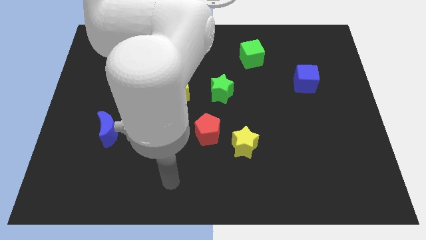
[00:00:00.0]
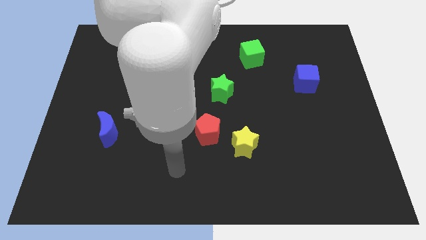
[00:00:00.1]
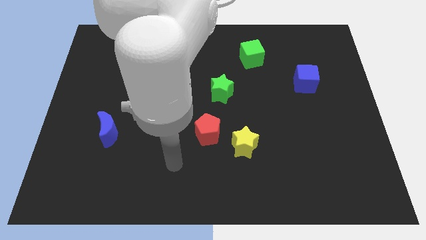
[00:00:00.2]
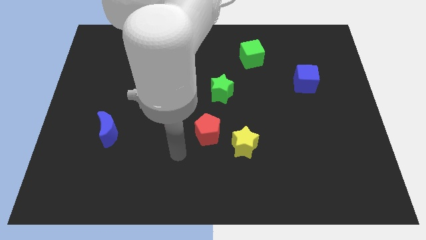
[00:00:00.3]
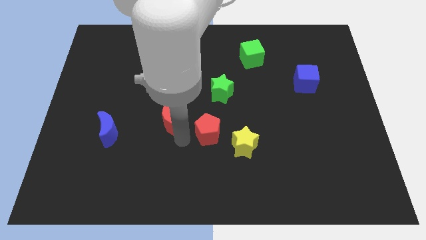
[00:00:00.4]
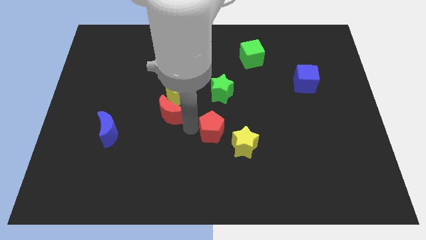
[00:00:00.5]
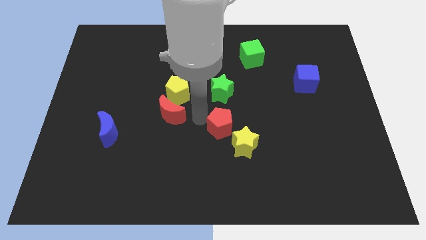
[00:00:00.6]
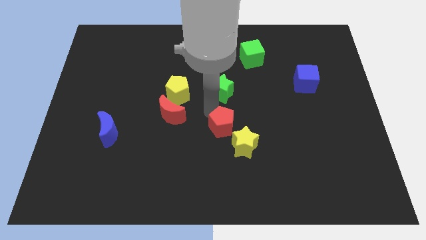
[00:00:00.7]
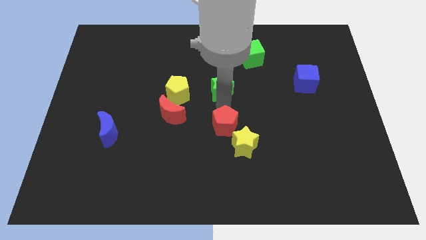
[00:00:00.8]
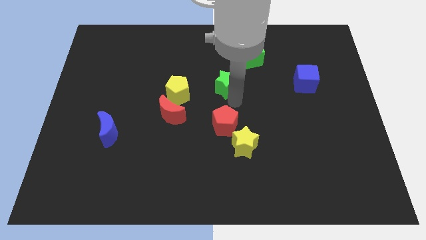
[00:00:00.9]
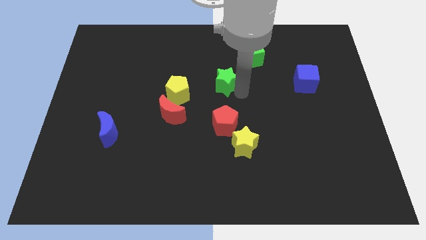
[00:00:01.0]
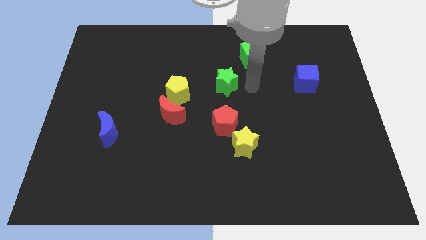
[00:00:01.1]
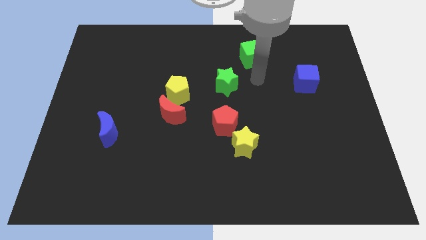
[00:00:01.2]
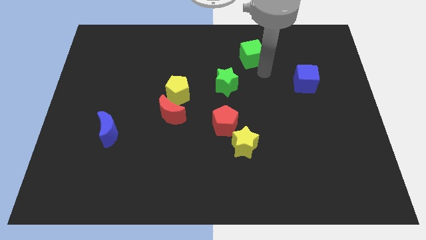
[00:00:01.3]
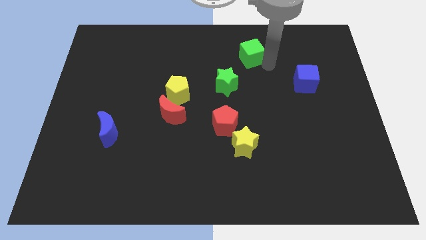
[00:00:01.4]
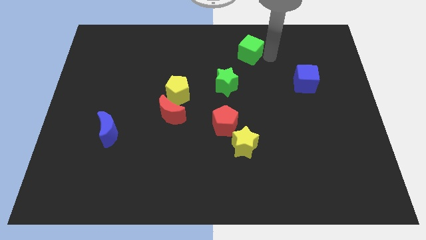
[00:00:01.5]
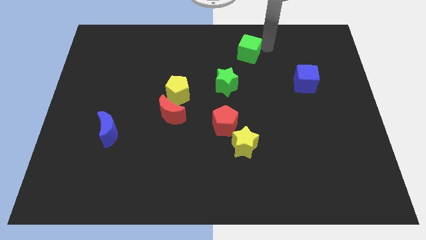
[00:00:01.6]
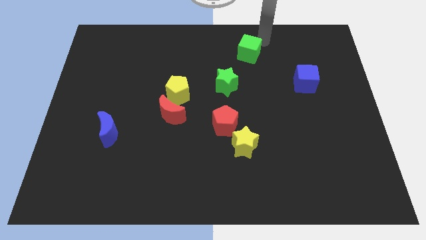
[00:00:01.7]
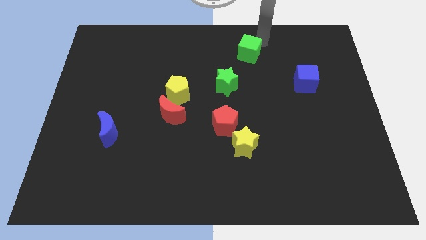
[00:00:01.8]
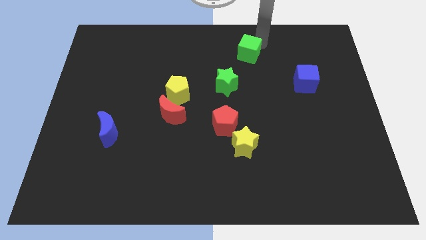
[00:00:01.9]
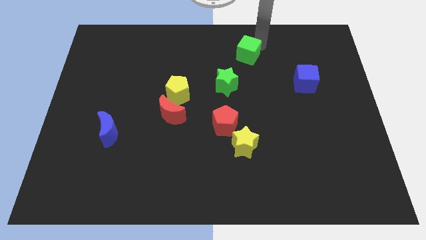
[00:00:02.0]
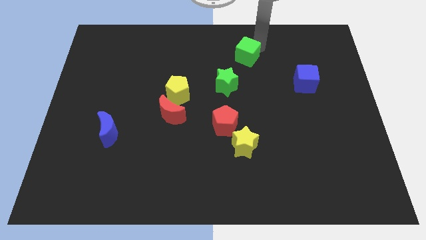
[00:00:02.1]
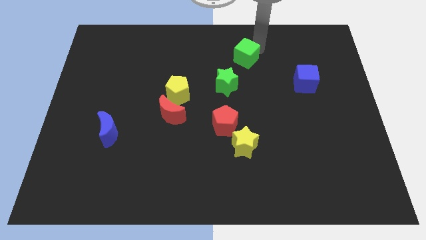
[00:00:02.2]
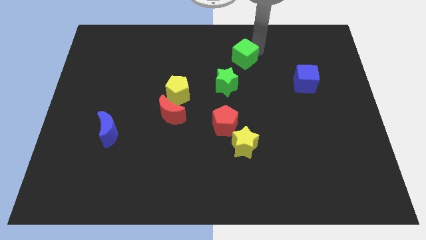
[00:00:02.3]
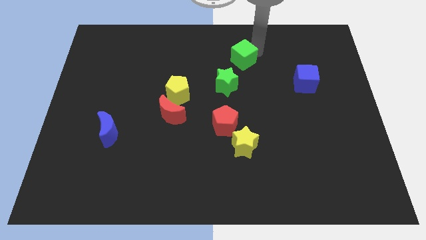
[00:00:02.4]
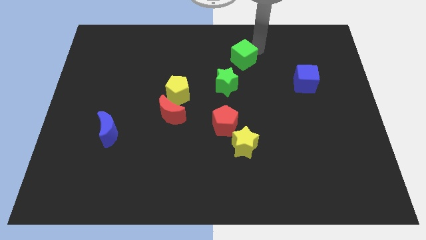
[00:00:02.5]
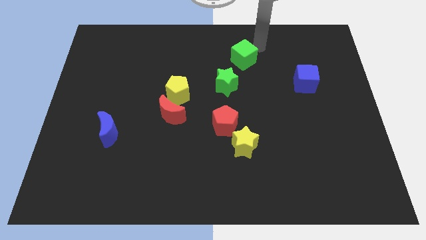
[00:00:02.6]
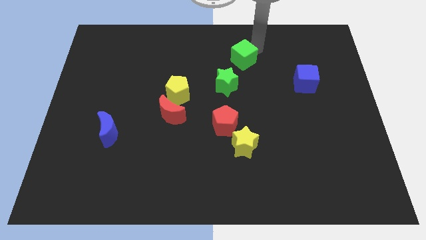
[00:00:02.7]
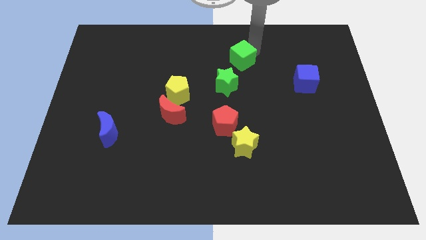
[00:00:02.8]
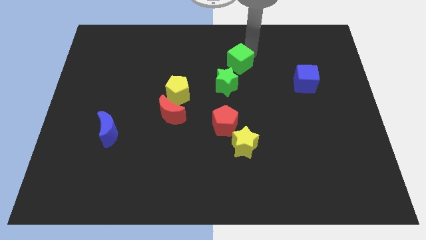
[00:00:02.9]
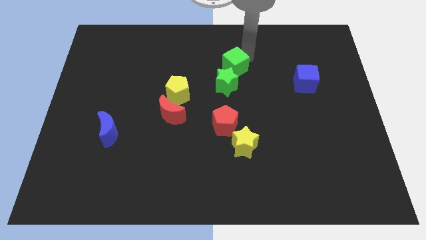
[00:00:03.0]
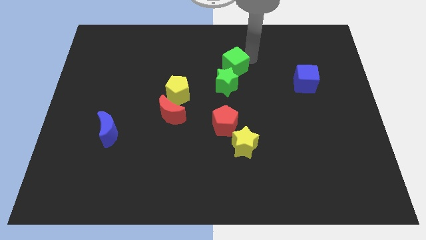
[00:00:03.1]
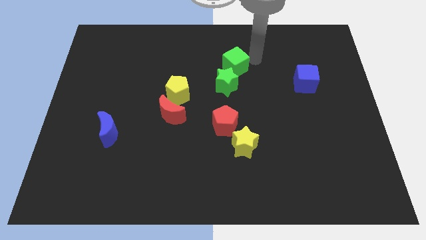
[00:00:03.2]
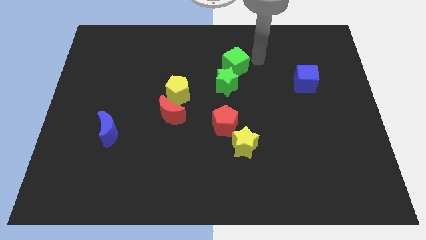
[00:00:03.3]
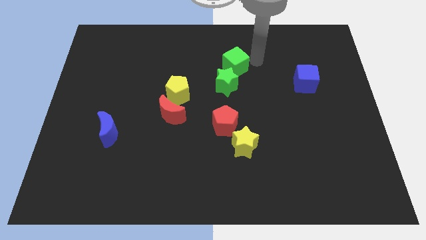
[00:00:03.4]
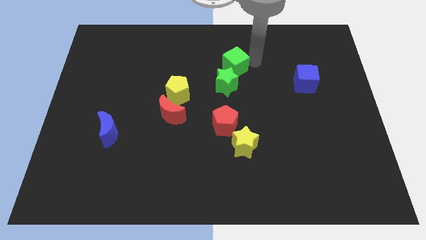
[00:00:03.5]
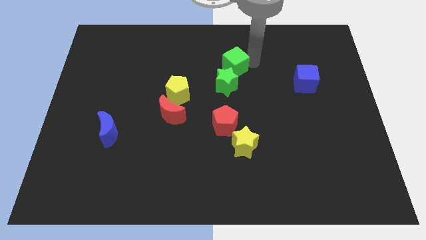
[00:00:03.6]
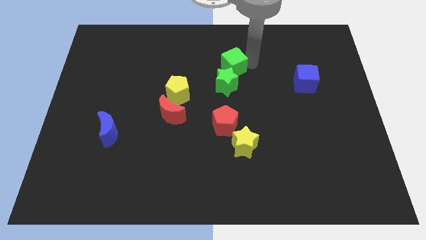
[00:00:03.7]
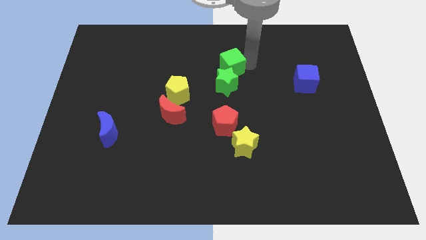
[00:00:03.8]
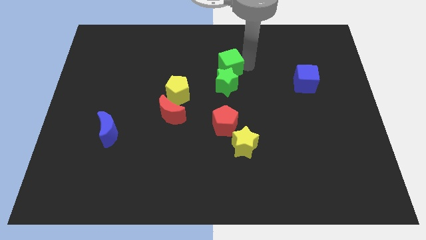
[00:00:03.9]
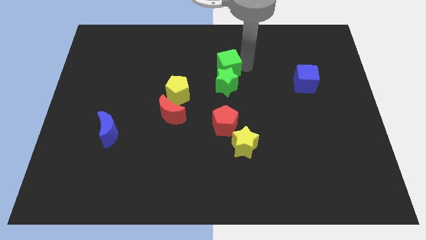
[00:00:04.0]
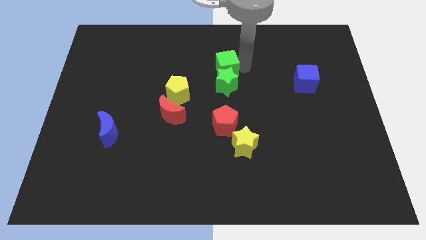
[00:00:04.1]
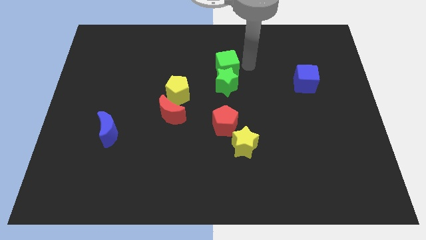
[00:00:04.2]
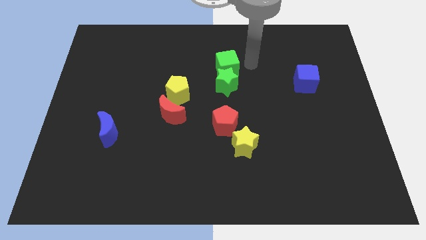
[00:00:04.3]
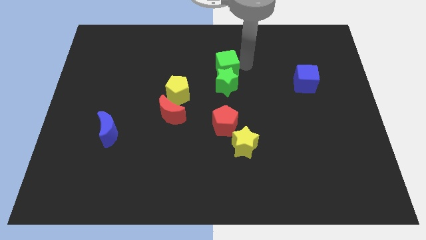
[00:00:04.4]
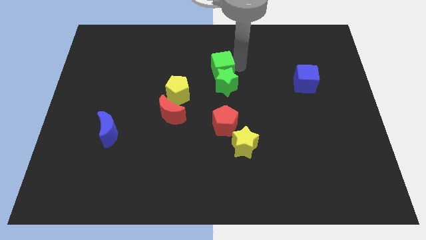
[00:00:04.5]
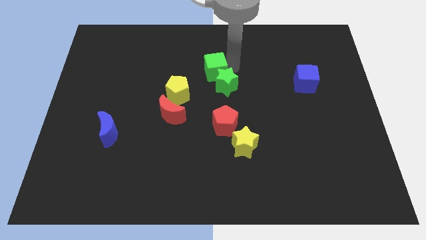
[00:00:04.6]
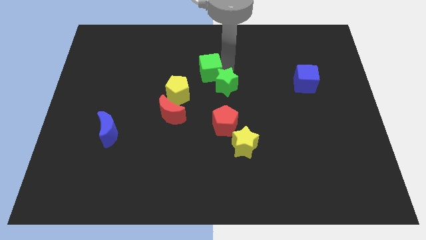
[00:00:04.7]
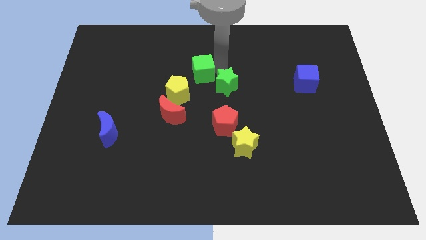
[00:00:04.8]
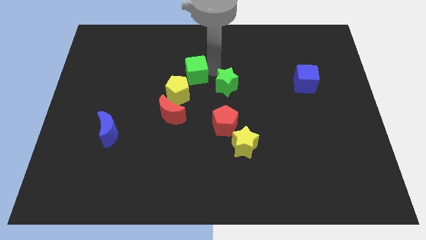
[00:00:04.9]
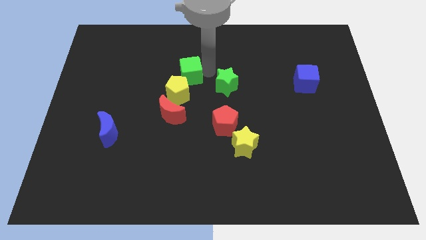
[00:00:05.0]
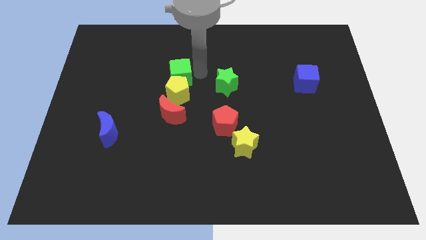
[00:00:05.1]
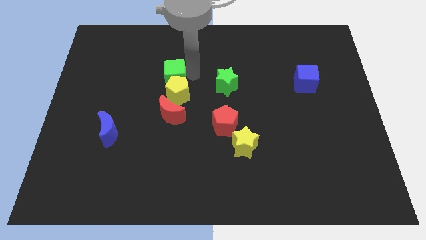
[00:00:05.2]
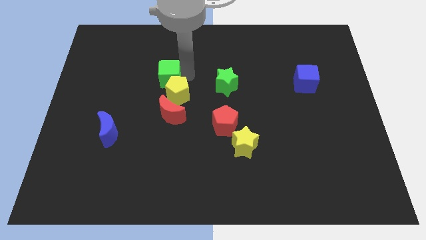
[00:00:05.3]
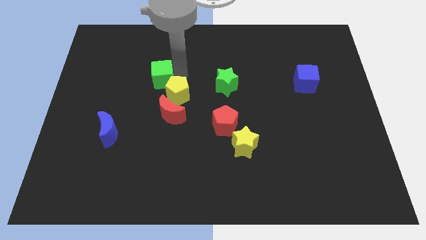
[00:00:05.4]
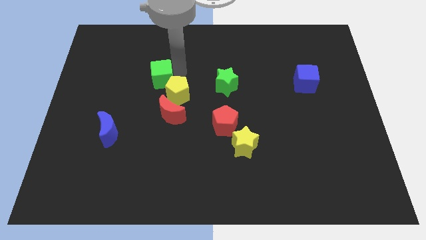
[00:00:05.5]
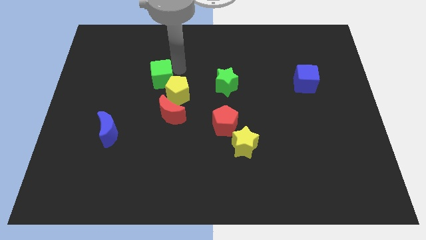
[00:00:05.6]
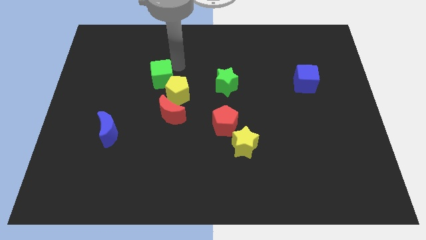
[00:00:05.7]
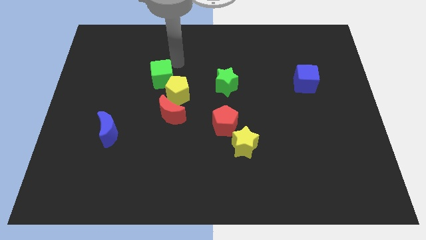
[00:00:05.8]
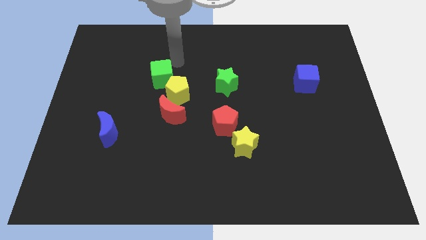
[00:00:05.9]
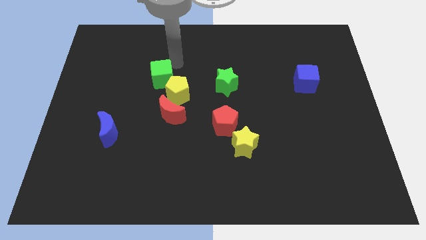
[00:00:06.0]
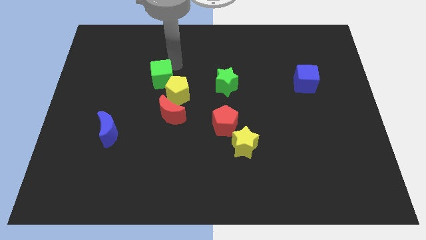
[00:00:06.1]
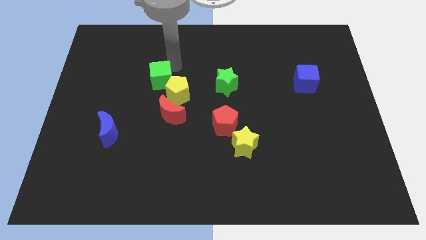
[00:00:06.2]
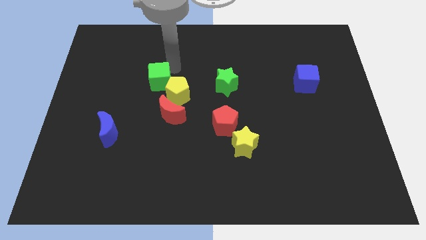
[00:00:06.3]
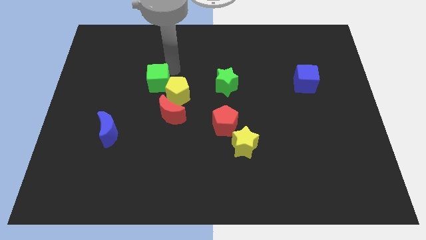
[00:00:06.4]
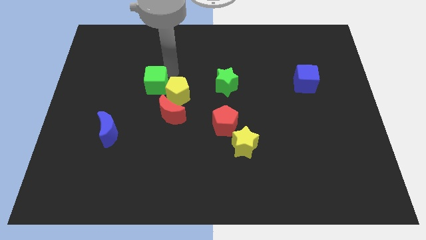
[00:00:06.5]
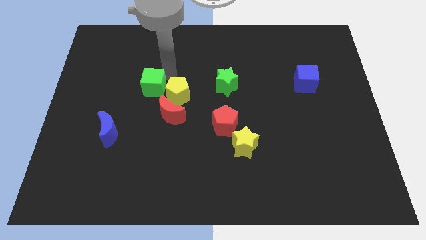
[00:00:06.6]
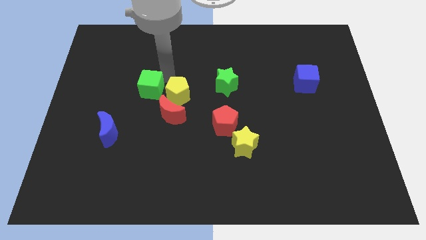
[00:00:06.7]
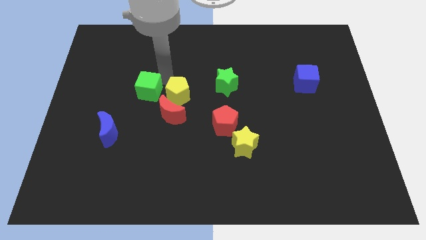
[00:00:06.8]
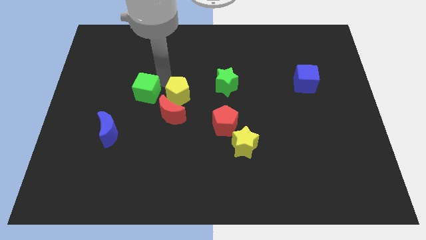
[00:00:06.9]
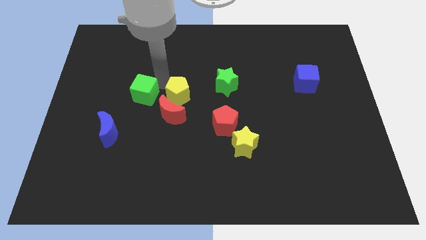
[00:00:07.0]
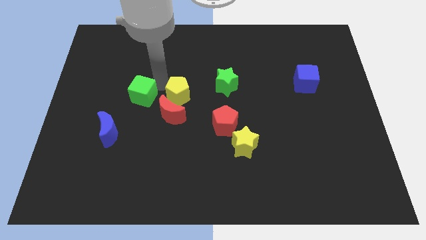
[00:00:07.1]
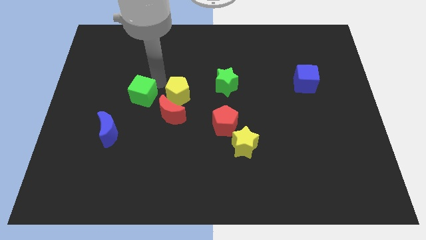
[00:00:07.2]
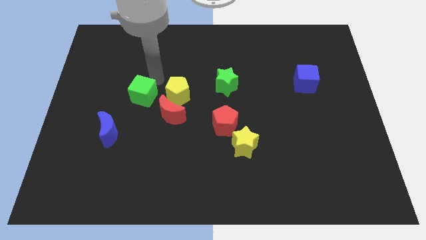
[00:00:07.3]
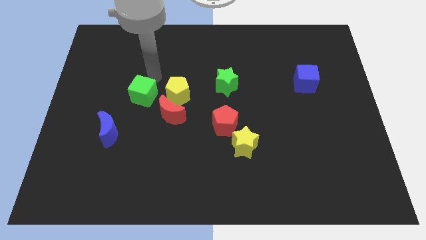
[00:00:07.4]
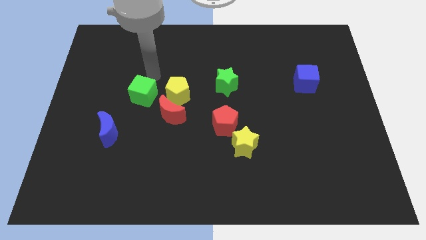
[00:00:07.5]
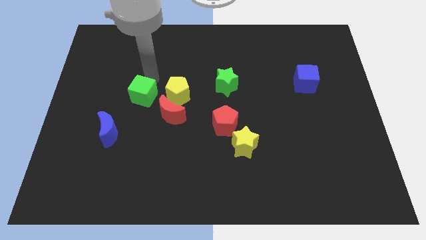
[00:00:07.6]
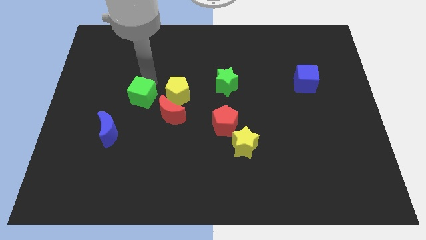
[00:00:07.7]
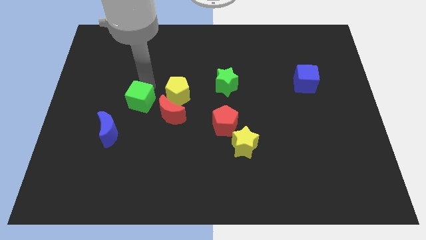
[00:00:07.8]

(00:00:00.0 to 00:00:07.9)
slide the green cube left of the red moon
